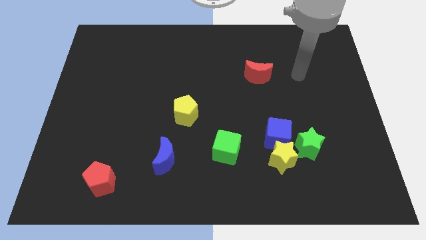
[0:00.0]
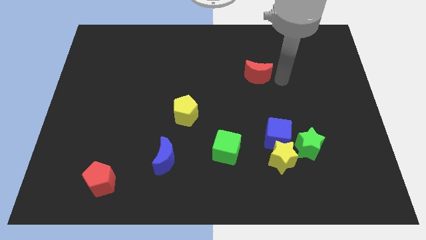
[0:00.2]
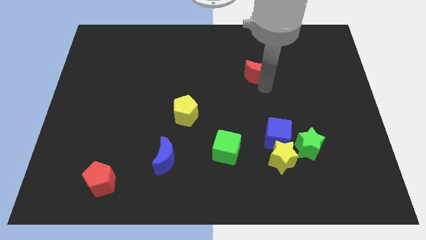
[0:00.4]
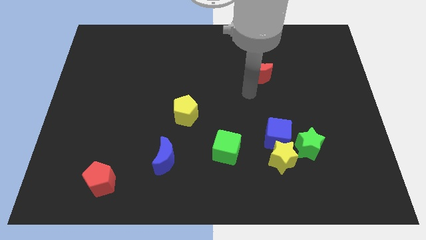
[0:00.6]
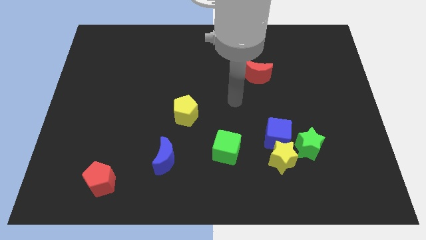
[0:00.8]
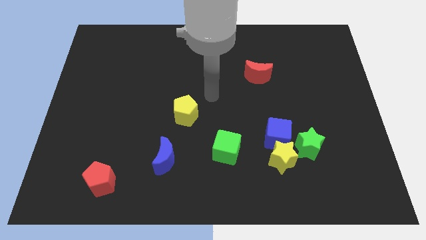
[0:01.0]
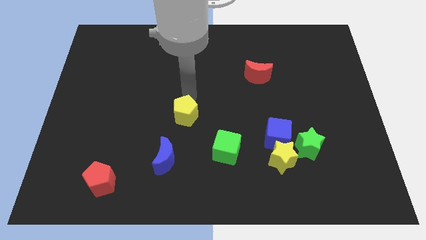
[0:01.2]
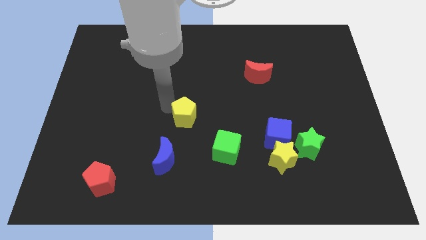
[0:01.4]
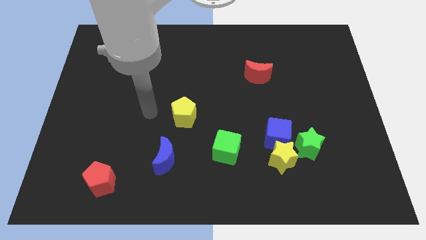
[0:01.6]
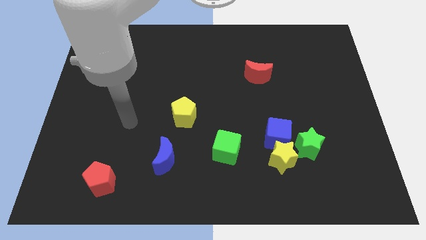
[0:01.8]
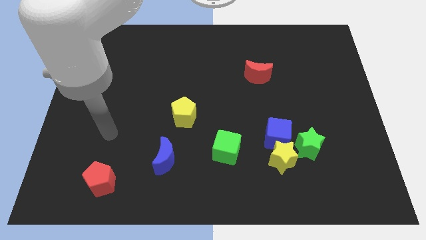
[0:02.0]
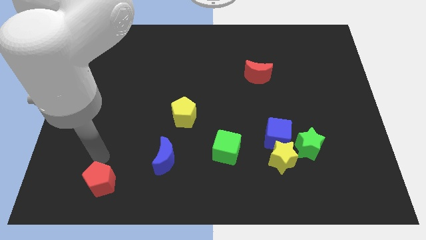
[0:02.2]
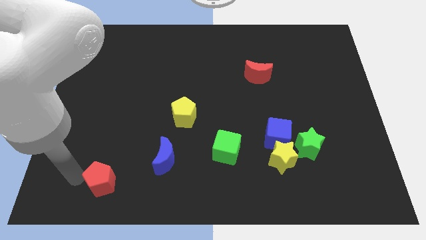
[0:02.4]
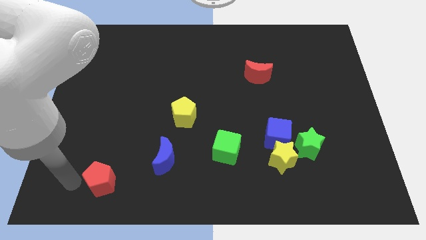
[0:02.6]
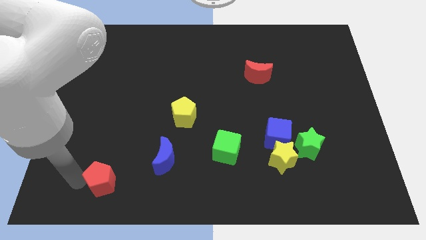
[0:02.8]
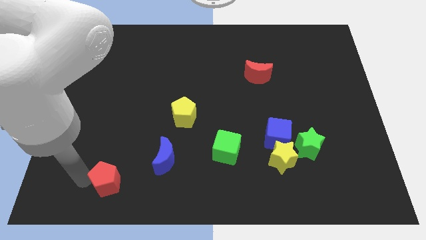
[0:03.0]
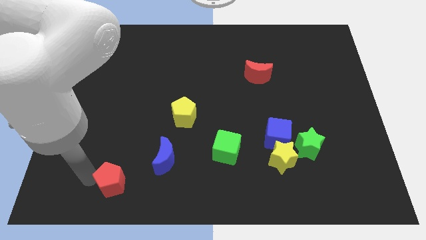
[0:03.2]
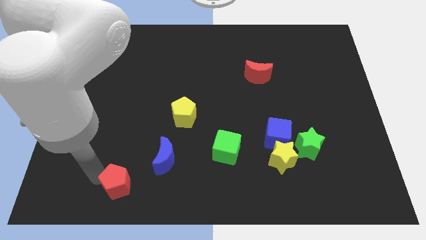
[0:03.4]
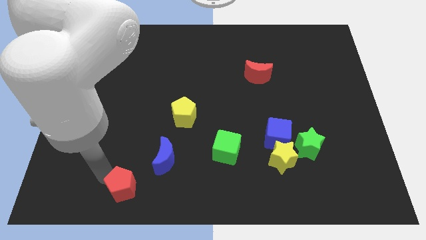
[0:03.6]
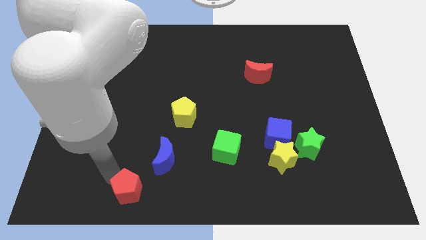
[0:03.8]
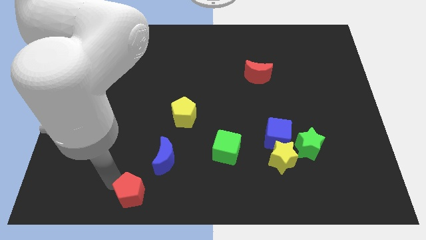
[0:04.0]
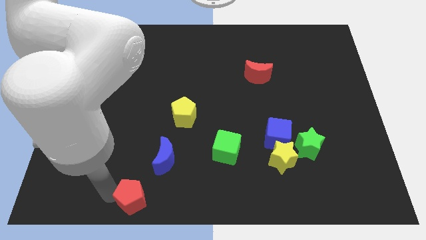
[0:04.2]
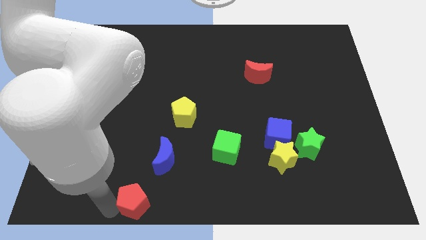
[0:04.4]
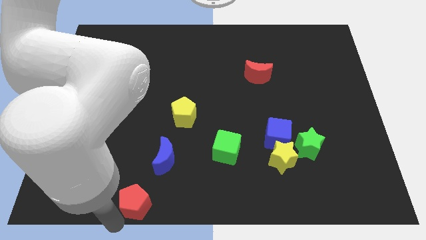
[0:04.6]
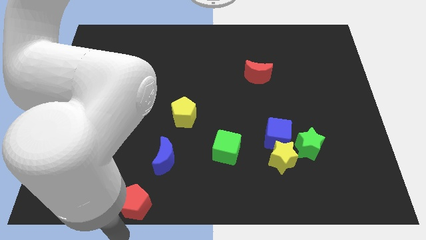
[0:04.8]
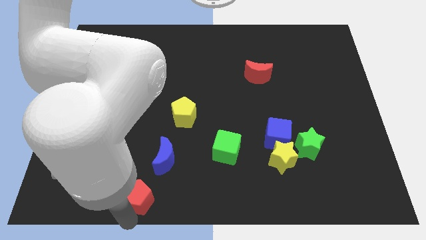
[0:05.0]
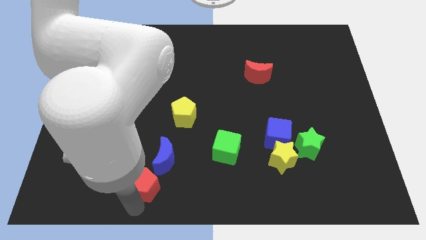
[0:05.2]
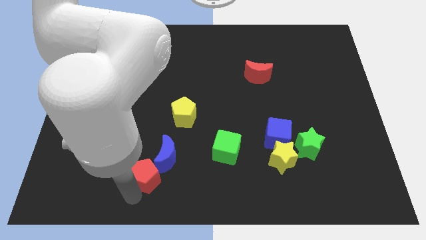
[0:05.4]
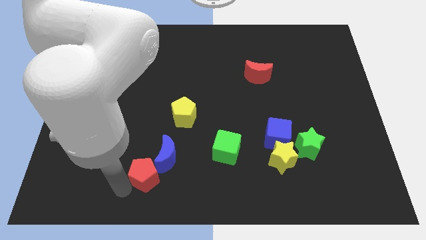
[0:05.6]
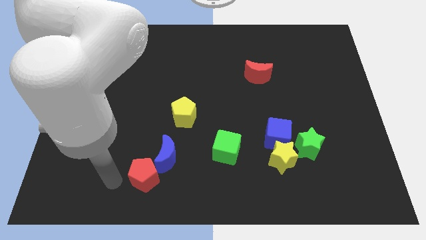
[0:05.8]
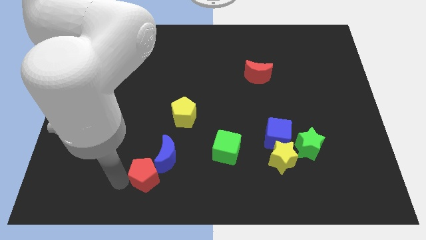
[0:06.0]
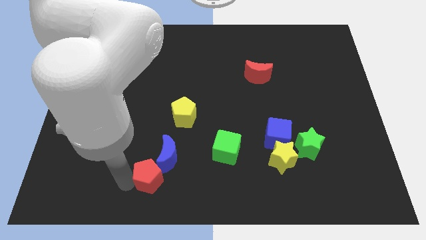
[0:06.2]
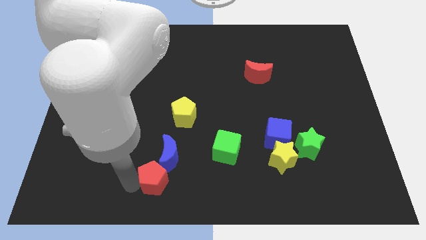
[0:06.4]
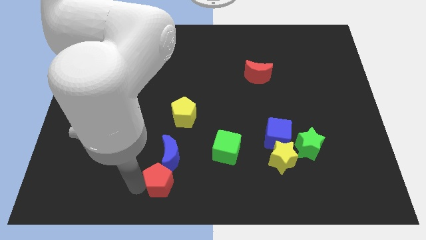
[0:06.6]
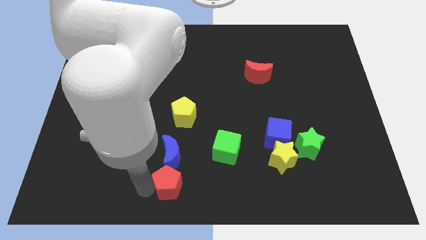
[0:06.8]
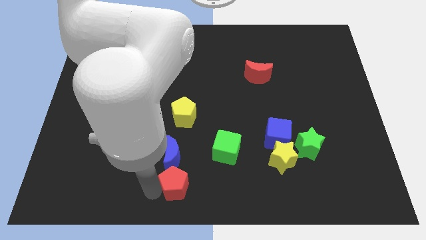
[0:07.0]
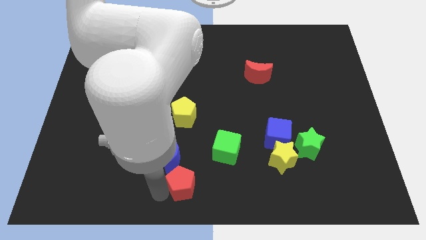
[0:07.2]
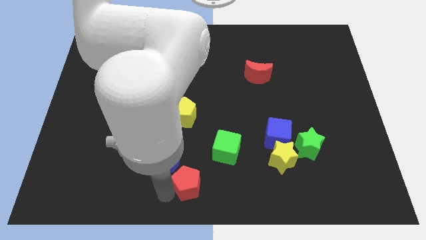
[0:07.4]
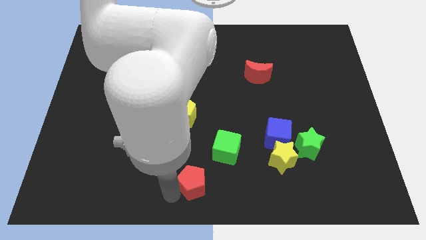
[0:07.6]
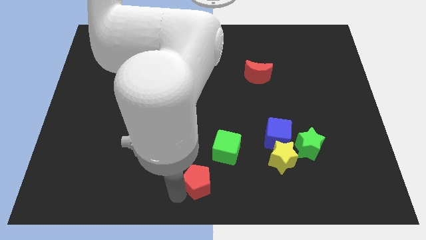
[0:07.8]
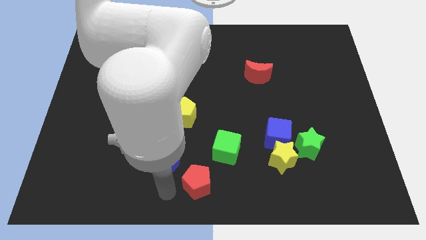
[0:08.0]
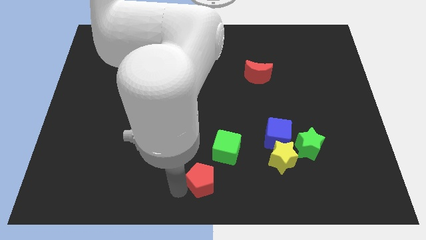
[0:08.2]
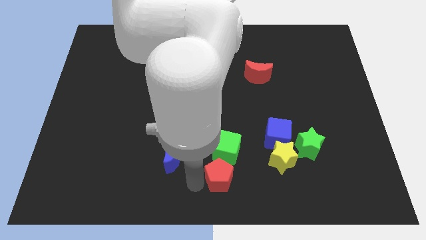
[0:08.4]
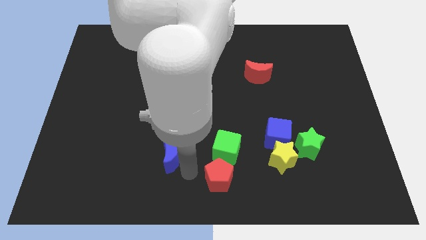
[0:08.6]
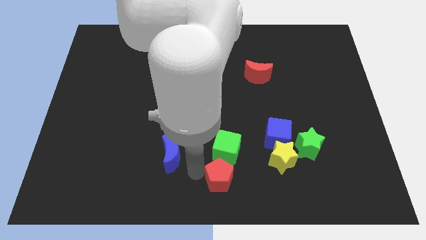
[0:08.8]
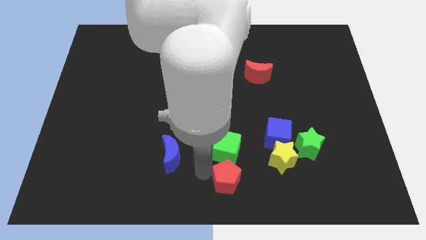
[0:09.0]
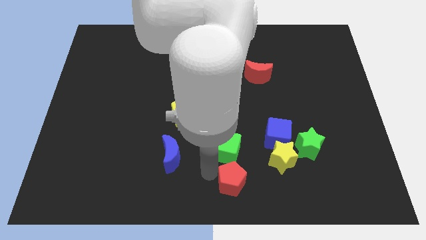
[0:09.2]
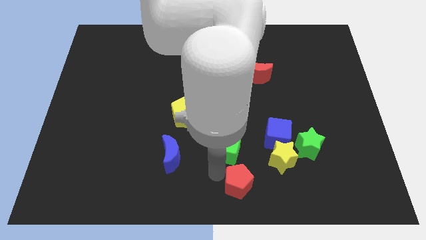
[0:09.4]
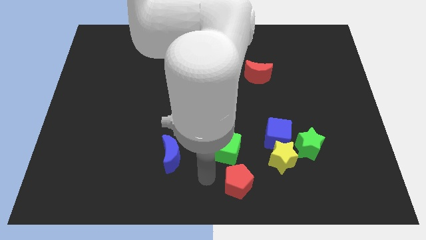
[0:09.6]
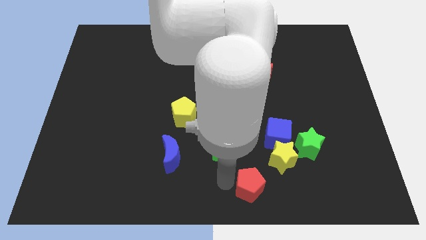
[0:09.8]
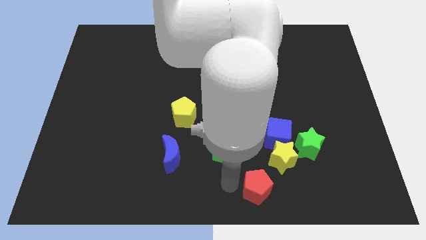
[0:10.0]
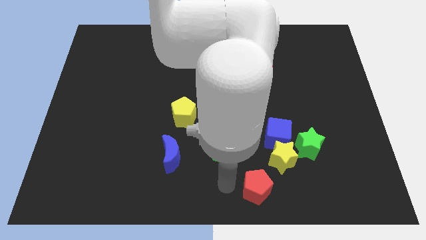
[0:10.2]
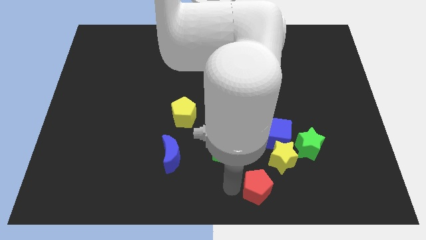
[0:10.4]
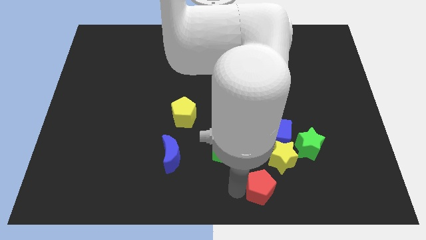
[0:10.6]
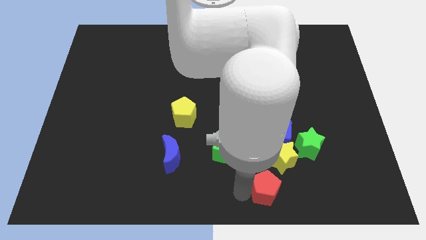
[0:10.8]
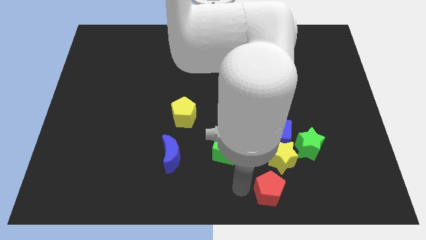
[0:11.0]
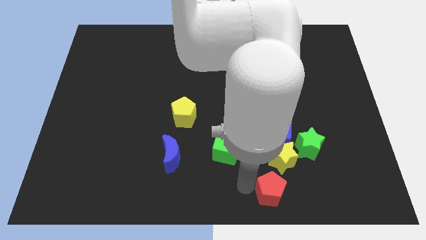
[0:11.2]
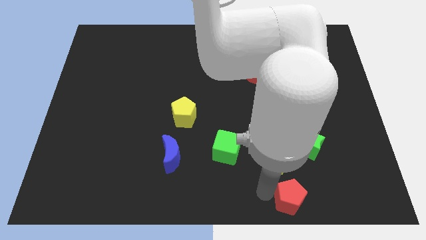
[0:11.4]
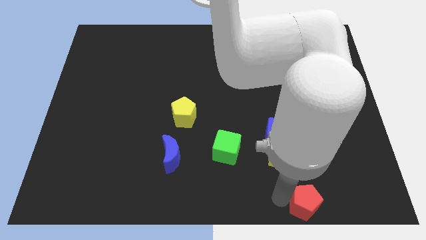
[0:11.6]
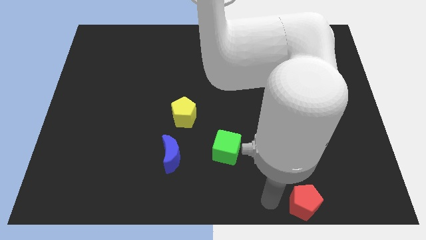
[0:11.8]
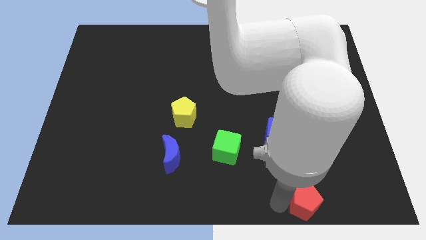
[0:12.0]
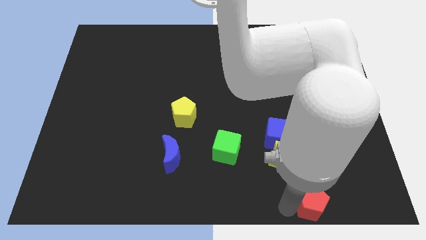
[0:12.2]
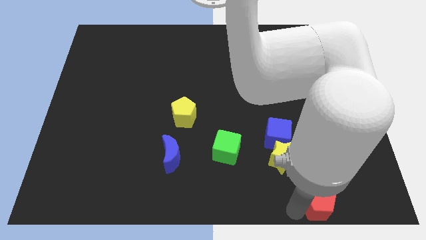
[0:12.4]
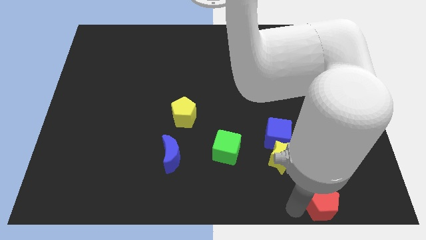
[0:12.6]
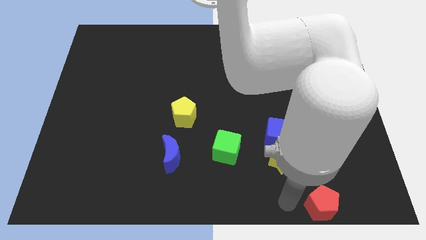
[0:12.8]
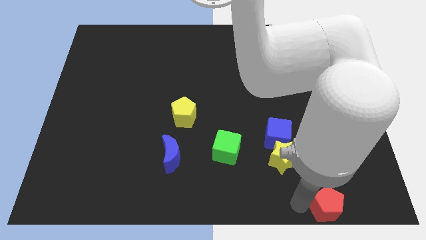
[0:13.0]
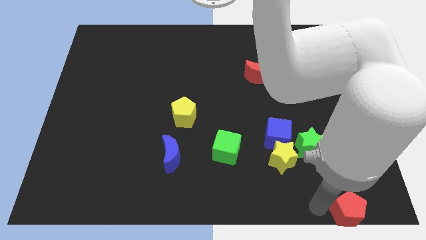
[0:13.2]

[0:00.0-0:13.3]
slide the red pentagon to the bottom right

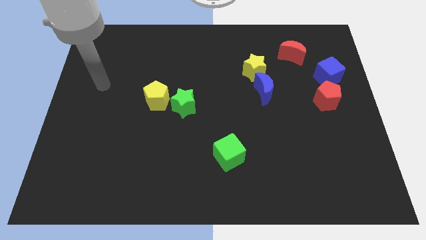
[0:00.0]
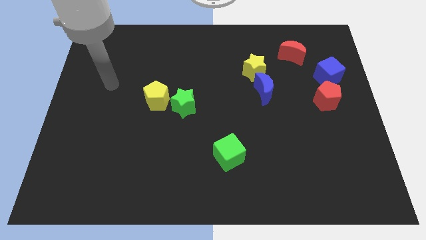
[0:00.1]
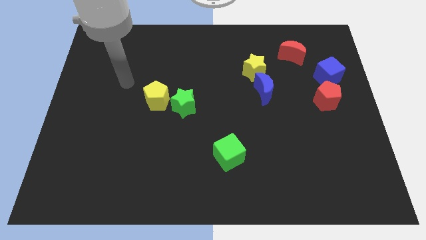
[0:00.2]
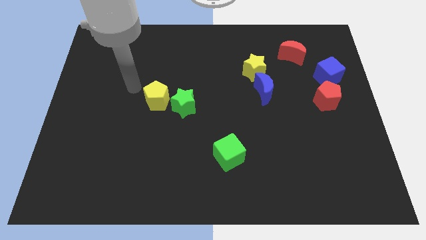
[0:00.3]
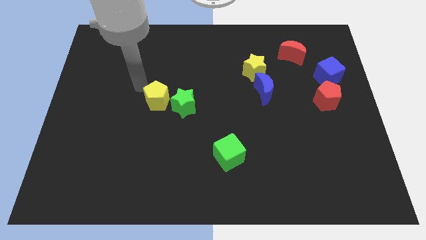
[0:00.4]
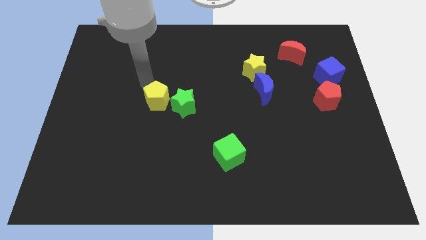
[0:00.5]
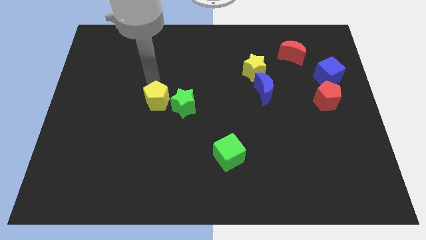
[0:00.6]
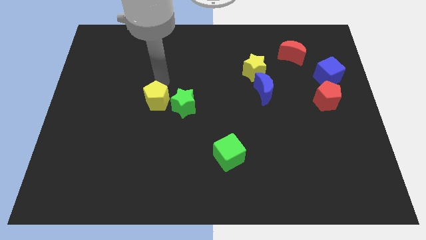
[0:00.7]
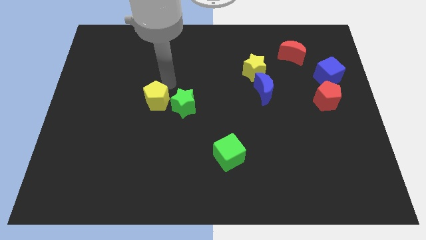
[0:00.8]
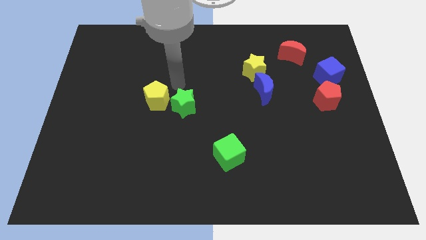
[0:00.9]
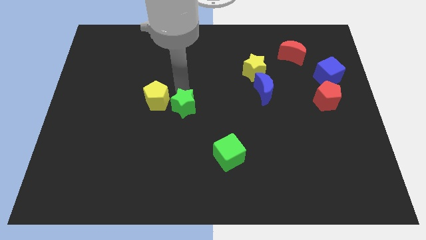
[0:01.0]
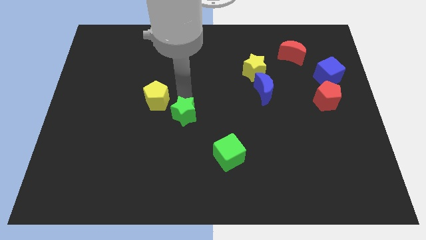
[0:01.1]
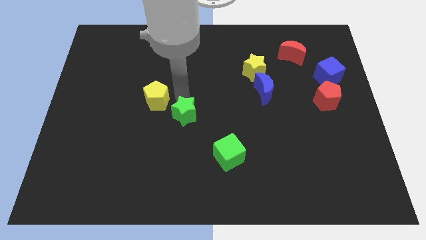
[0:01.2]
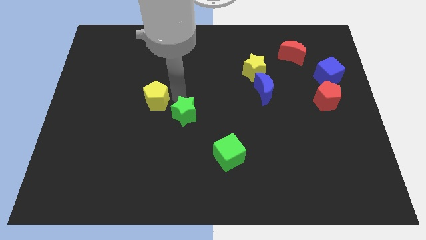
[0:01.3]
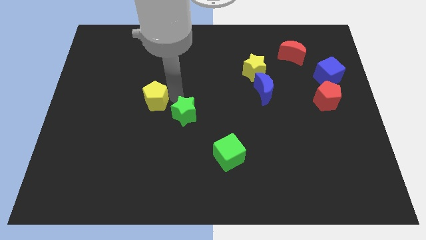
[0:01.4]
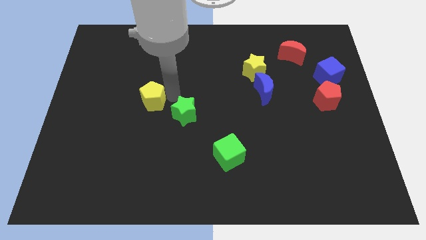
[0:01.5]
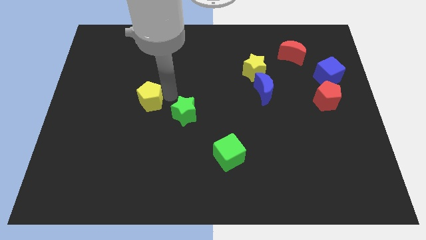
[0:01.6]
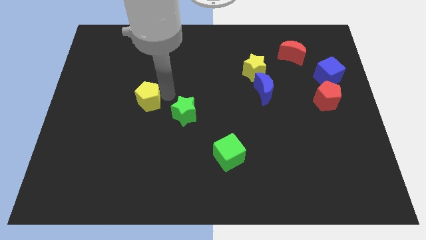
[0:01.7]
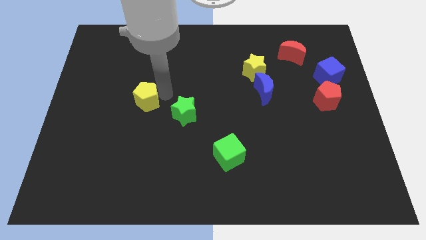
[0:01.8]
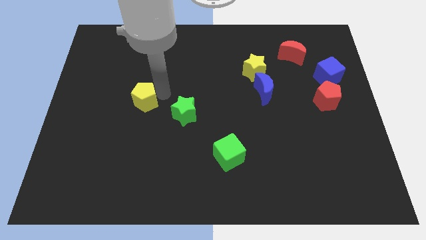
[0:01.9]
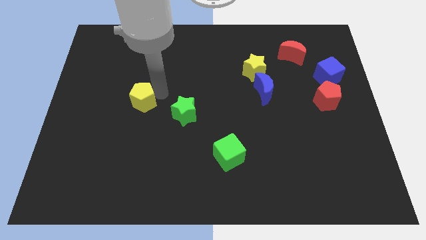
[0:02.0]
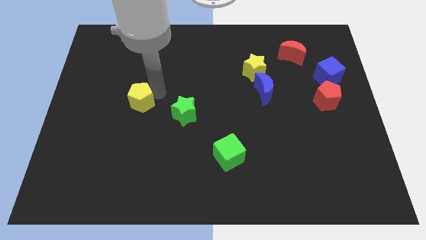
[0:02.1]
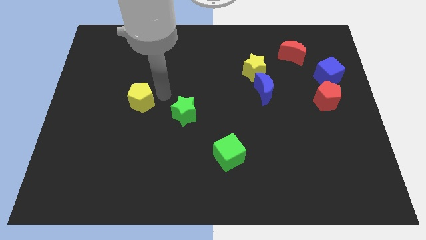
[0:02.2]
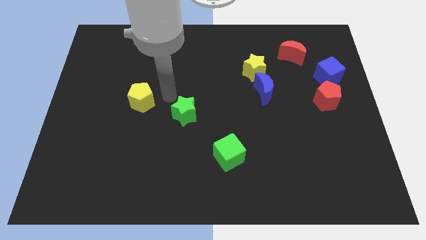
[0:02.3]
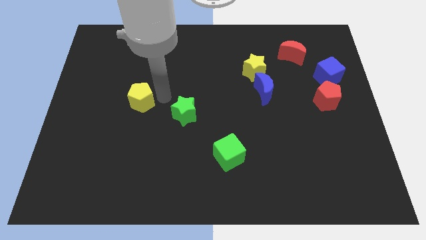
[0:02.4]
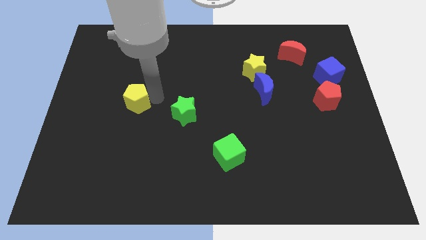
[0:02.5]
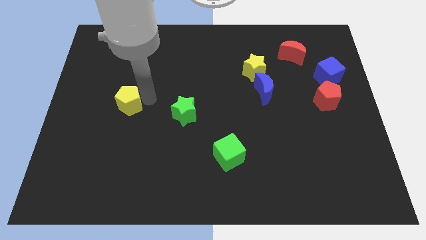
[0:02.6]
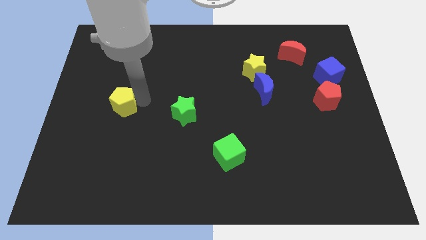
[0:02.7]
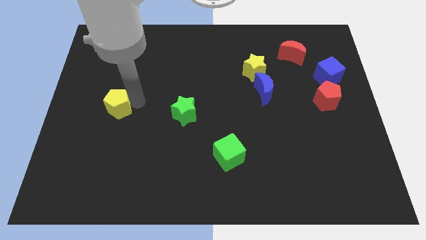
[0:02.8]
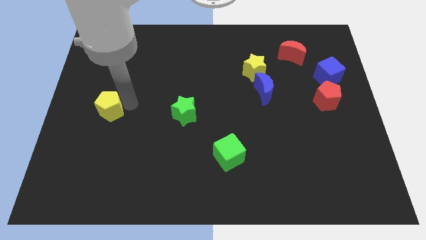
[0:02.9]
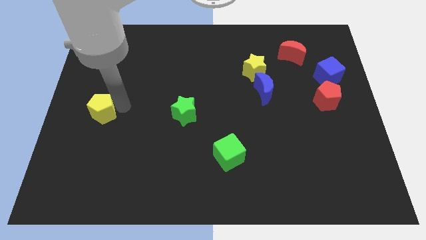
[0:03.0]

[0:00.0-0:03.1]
slide the yellow pentagon to the center left
